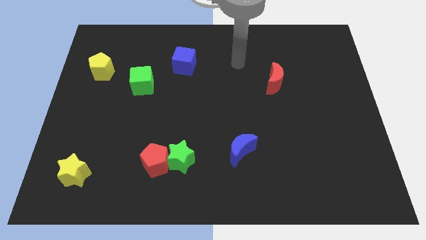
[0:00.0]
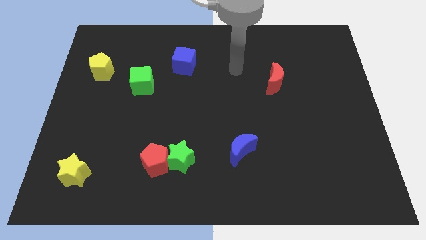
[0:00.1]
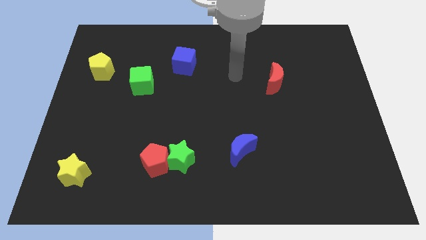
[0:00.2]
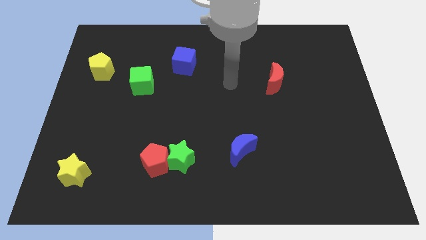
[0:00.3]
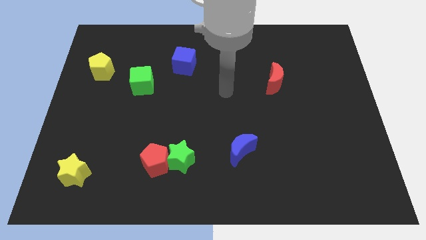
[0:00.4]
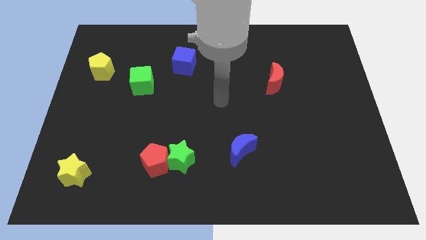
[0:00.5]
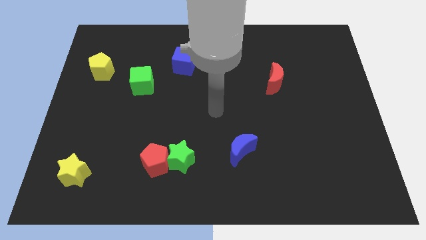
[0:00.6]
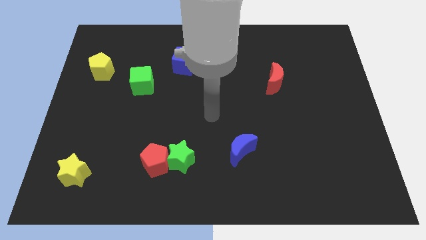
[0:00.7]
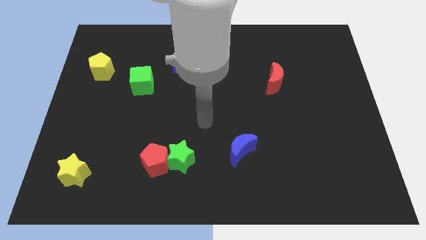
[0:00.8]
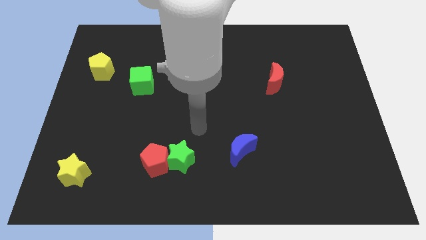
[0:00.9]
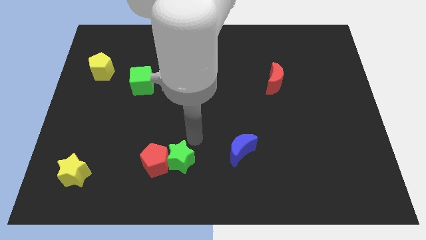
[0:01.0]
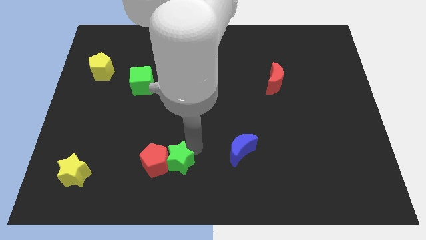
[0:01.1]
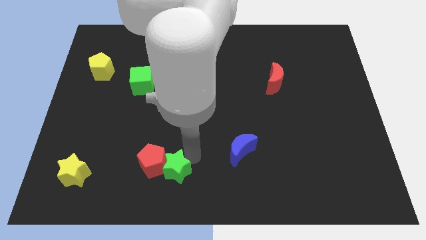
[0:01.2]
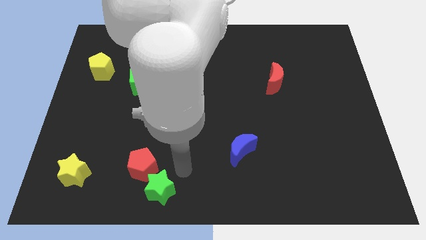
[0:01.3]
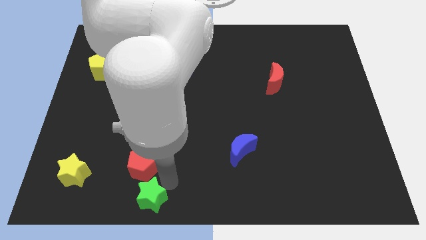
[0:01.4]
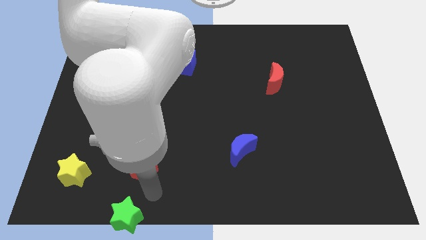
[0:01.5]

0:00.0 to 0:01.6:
separate the red pentagon from the green star

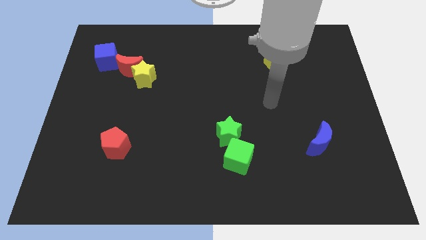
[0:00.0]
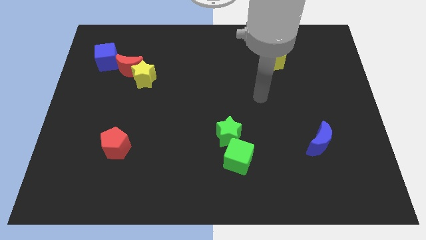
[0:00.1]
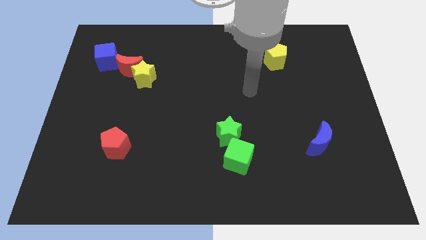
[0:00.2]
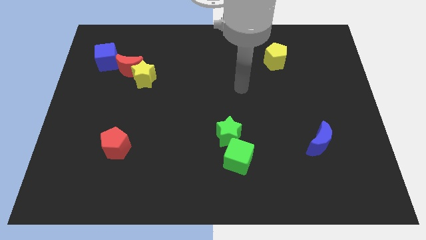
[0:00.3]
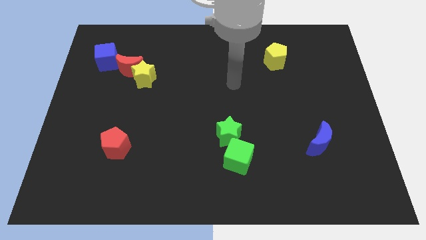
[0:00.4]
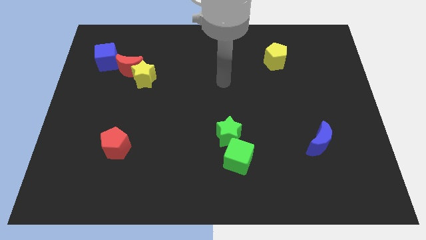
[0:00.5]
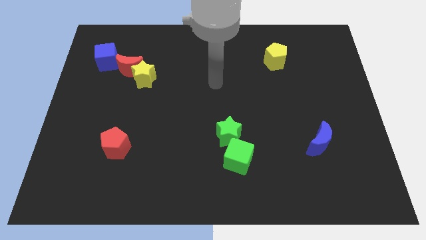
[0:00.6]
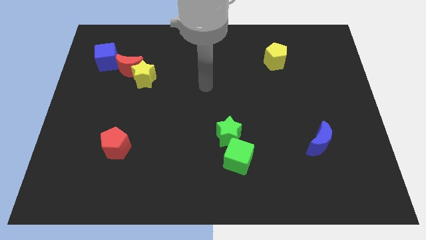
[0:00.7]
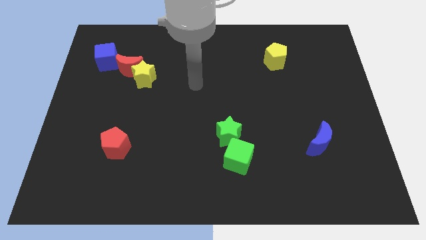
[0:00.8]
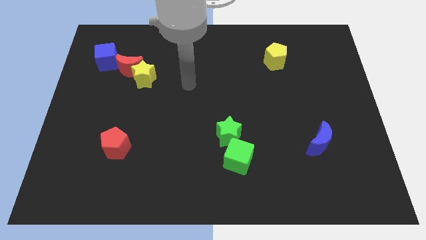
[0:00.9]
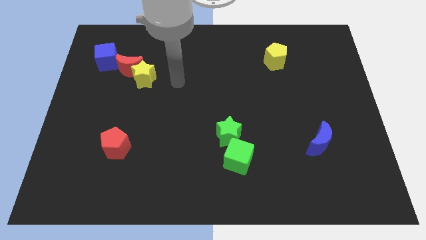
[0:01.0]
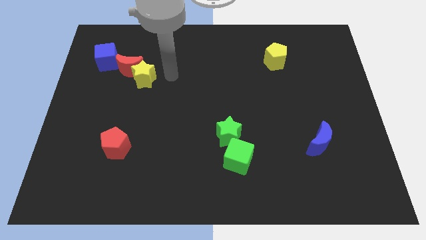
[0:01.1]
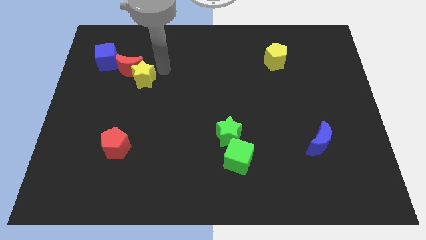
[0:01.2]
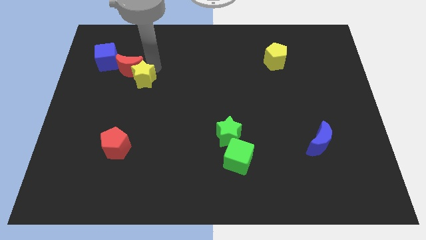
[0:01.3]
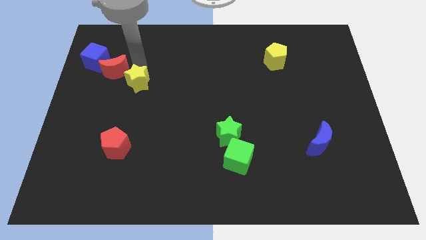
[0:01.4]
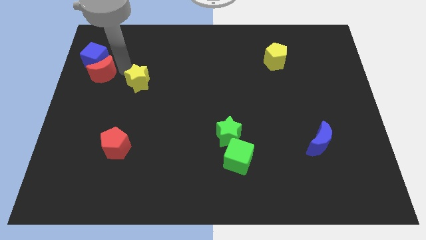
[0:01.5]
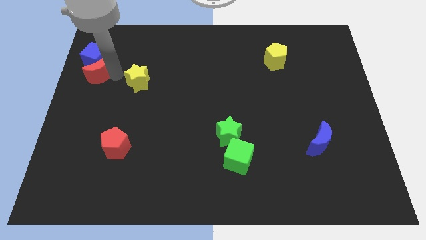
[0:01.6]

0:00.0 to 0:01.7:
move the yellow star away from the red moon

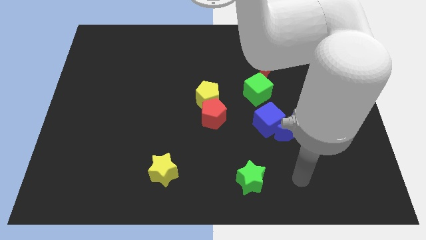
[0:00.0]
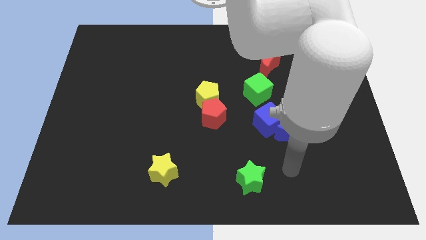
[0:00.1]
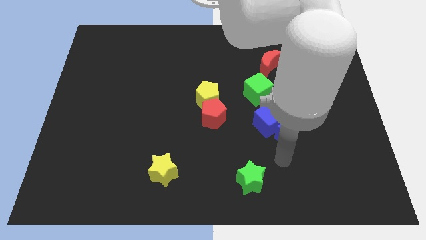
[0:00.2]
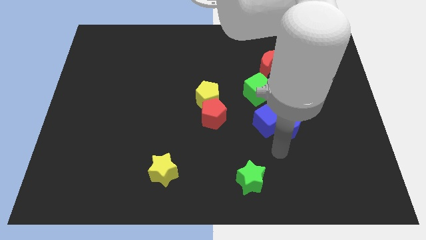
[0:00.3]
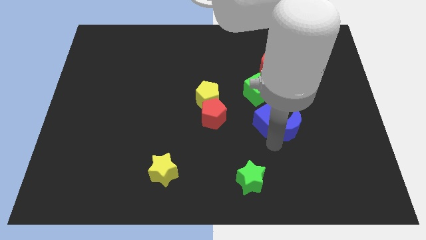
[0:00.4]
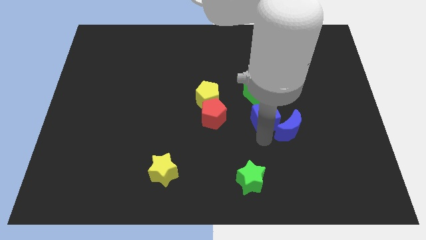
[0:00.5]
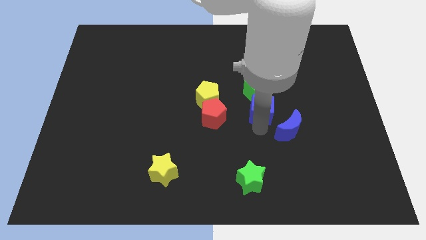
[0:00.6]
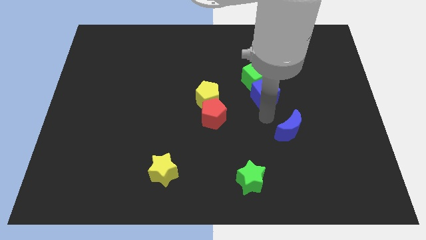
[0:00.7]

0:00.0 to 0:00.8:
move the blue moon away from the blue cube

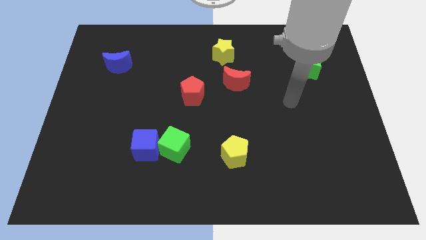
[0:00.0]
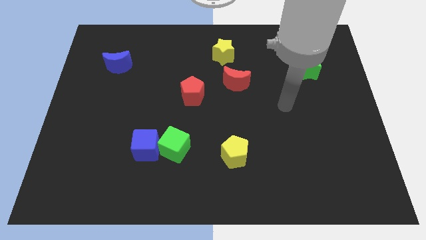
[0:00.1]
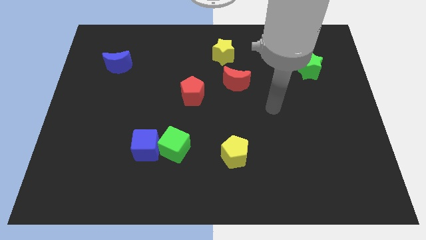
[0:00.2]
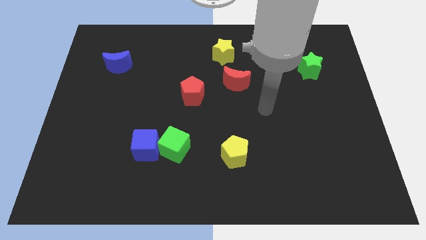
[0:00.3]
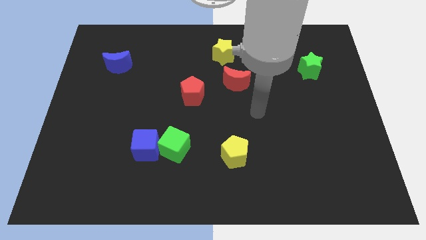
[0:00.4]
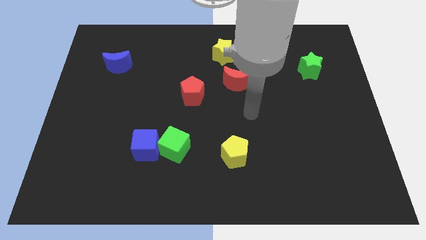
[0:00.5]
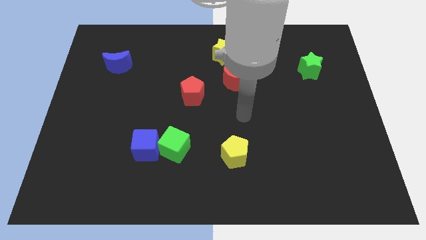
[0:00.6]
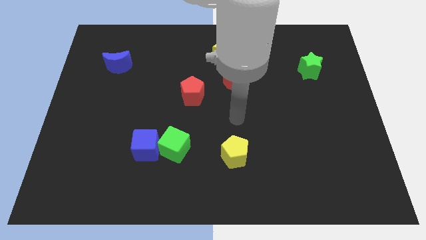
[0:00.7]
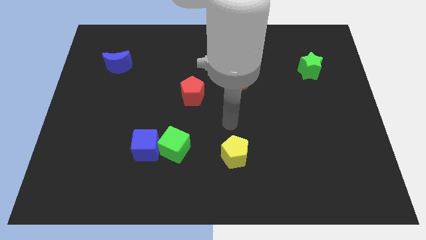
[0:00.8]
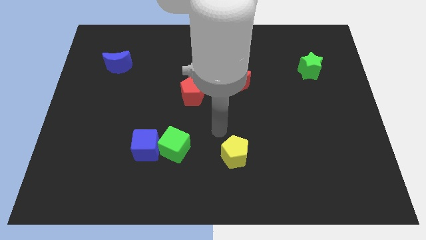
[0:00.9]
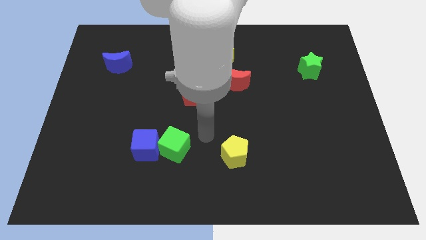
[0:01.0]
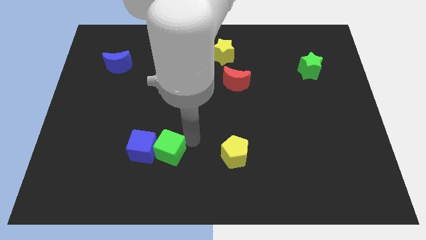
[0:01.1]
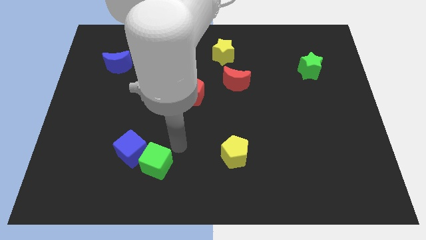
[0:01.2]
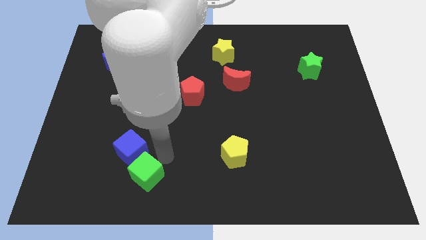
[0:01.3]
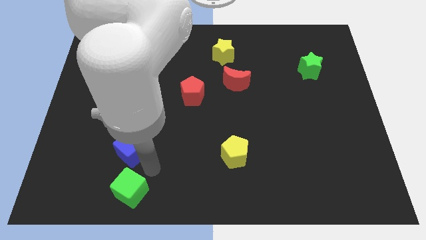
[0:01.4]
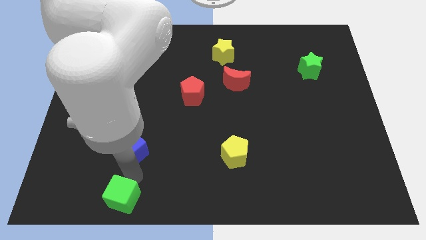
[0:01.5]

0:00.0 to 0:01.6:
separate the blue cube from the green cube

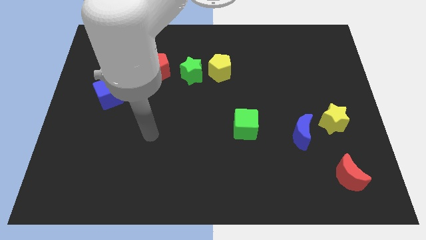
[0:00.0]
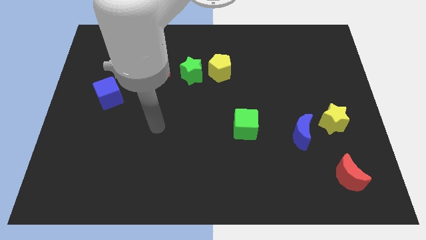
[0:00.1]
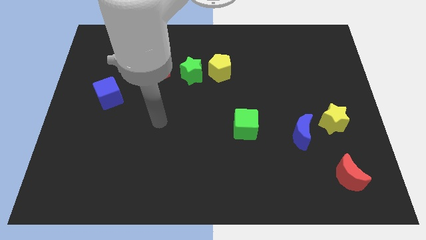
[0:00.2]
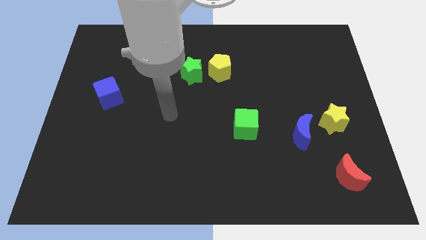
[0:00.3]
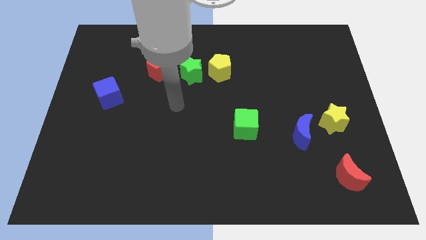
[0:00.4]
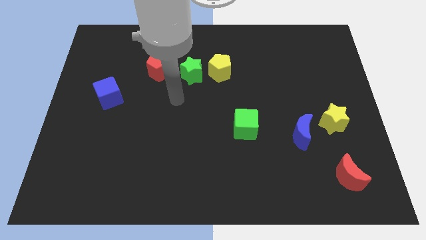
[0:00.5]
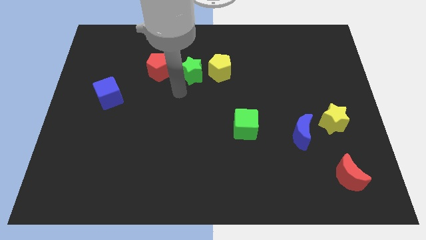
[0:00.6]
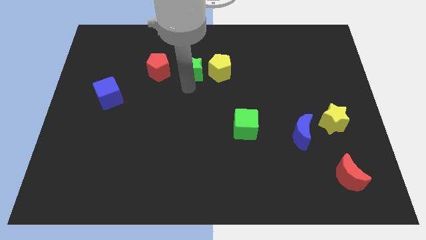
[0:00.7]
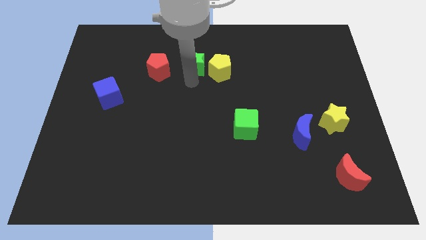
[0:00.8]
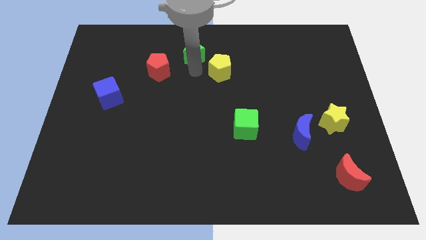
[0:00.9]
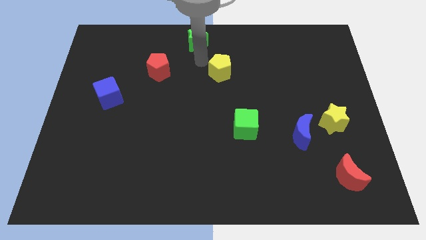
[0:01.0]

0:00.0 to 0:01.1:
separate the yellow pentagon from the green star

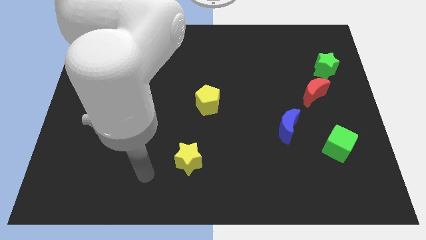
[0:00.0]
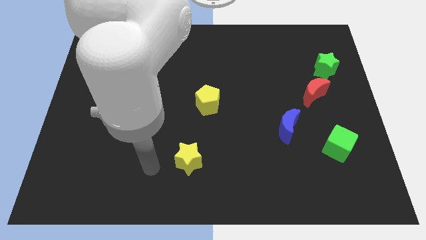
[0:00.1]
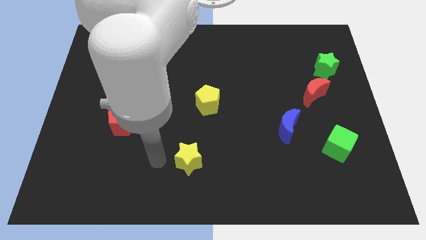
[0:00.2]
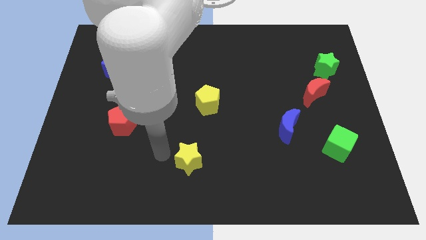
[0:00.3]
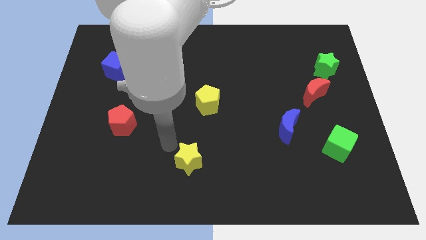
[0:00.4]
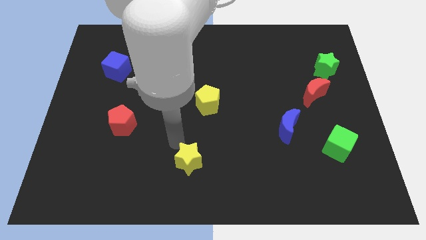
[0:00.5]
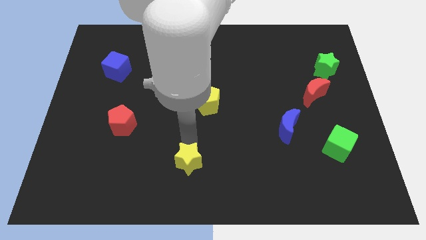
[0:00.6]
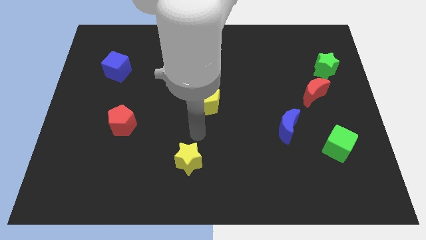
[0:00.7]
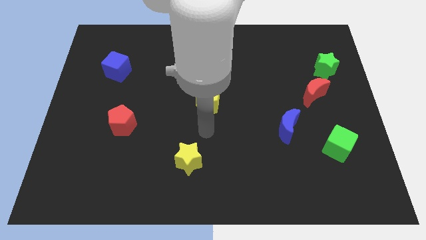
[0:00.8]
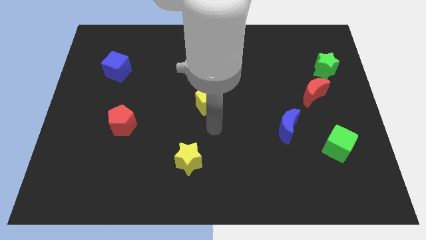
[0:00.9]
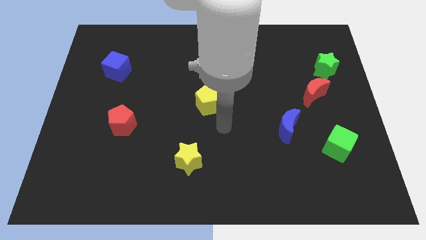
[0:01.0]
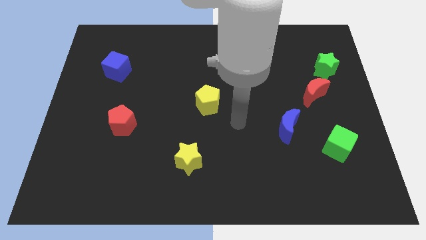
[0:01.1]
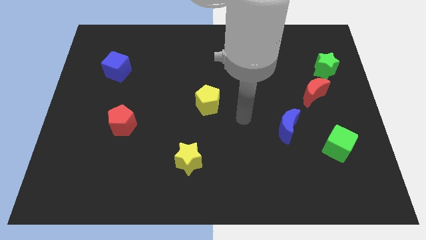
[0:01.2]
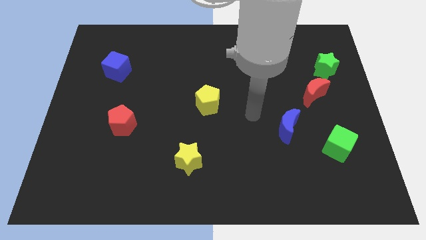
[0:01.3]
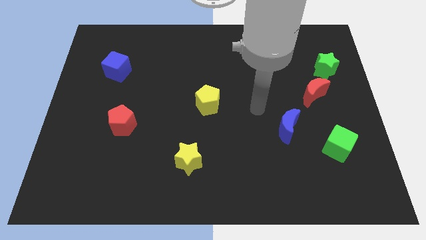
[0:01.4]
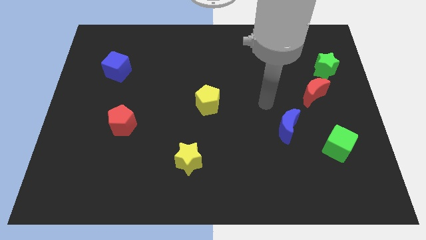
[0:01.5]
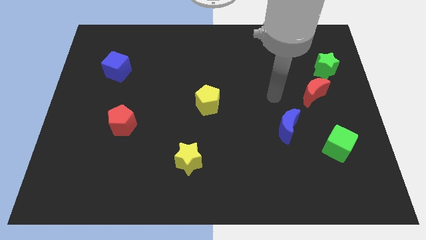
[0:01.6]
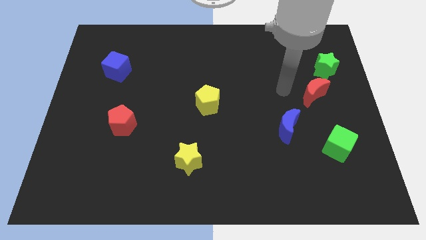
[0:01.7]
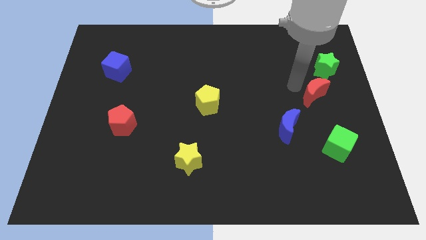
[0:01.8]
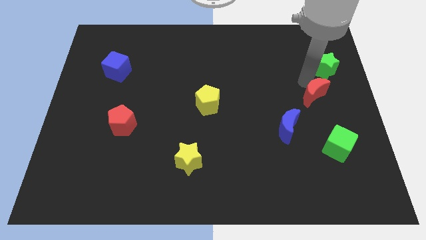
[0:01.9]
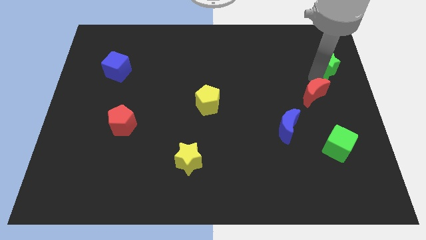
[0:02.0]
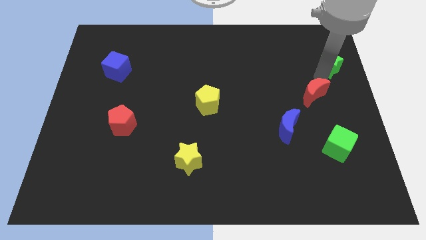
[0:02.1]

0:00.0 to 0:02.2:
separate the red moon from the green star

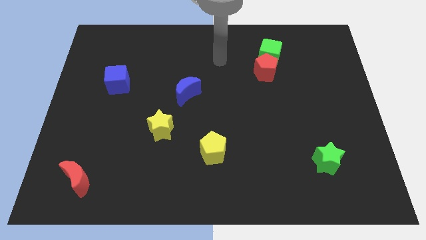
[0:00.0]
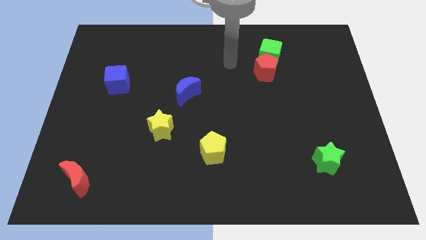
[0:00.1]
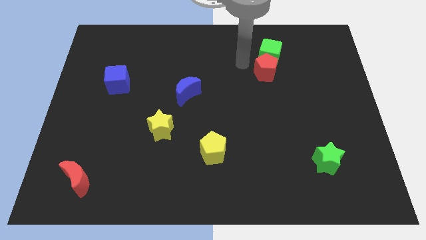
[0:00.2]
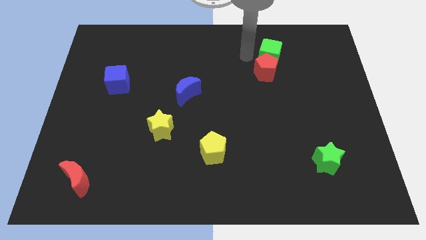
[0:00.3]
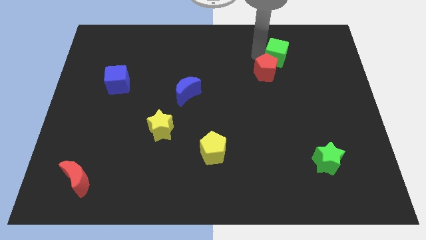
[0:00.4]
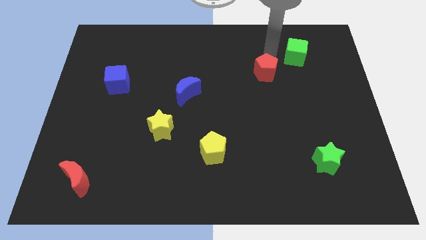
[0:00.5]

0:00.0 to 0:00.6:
move the red pentagon away from the green cube
